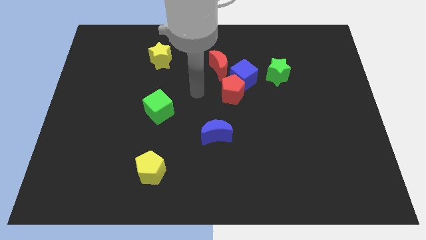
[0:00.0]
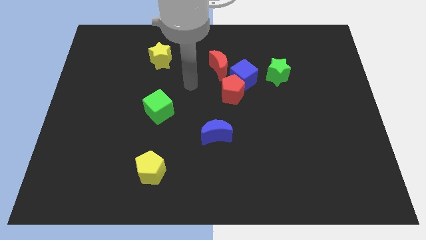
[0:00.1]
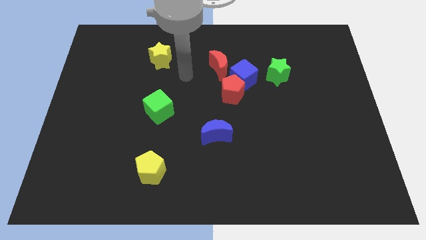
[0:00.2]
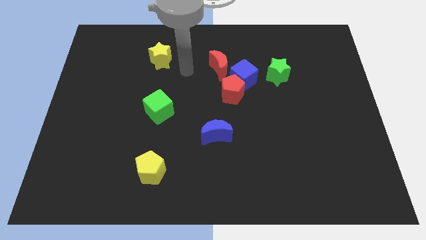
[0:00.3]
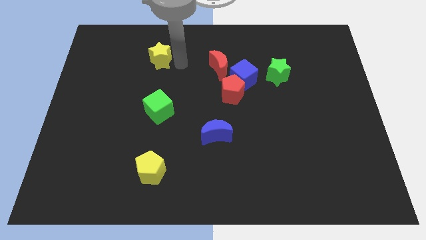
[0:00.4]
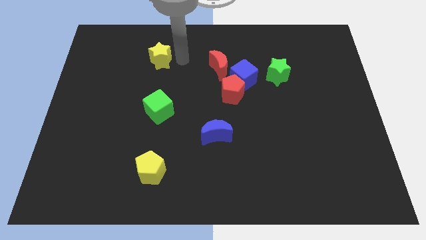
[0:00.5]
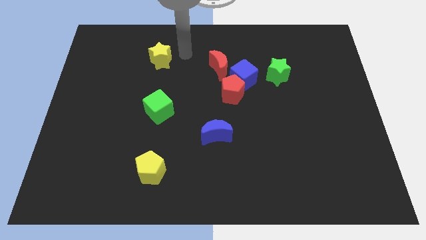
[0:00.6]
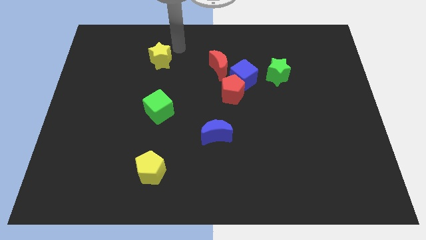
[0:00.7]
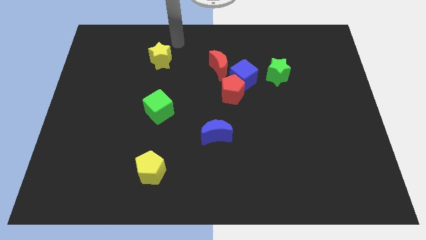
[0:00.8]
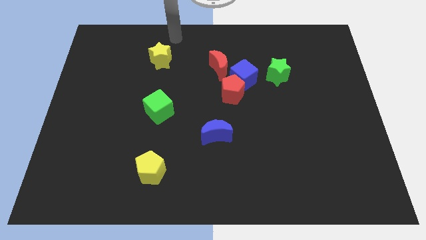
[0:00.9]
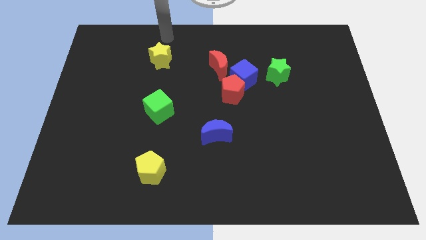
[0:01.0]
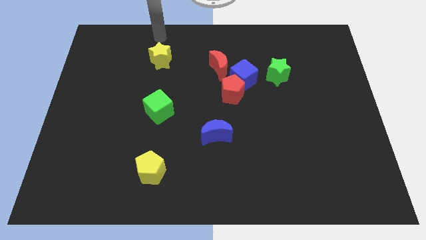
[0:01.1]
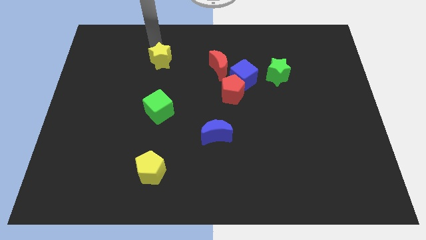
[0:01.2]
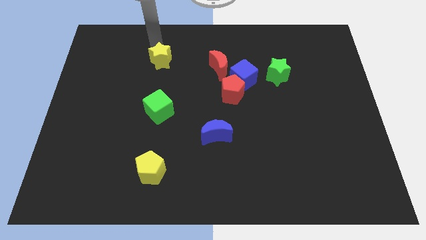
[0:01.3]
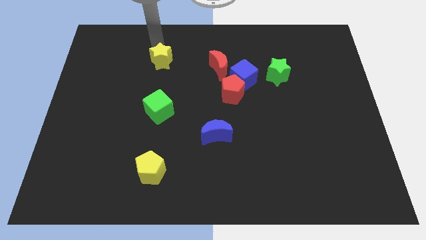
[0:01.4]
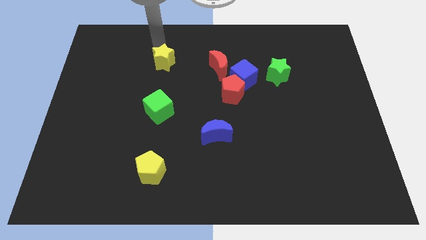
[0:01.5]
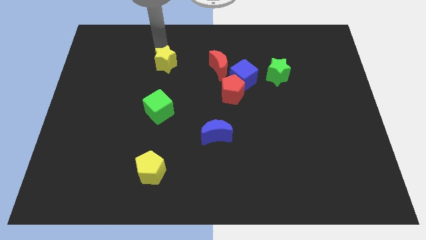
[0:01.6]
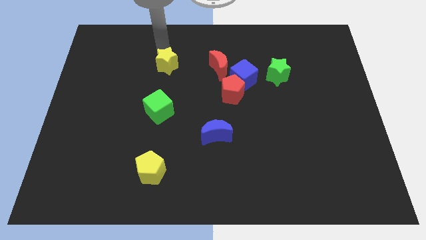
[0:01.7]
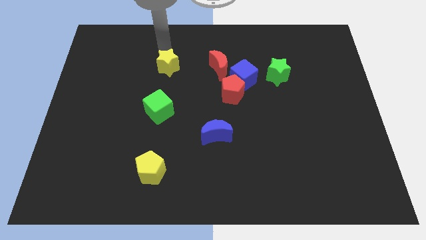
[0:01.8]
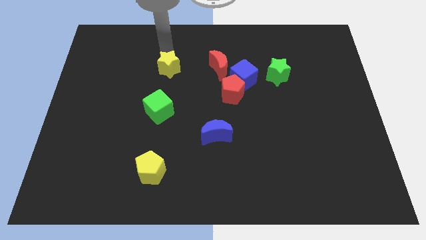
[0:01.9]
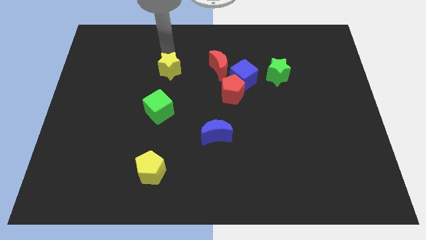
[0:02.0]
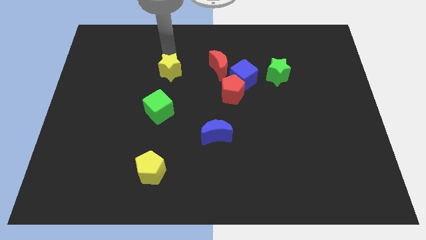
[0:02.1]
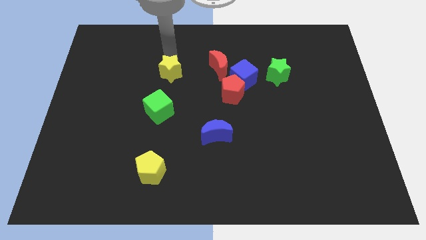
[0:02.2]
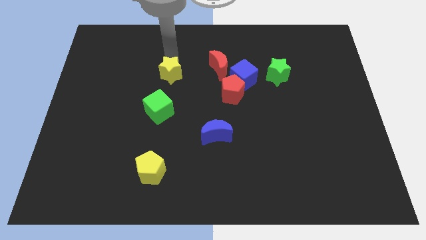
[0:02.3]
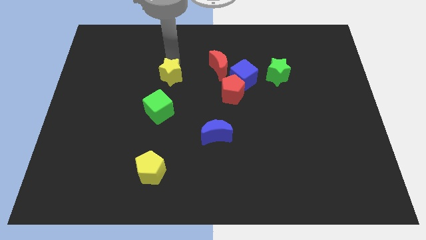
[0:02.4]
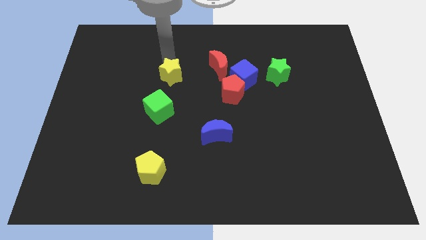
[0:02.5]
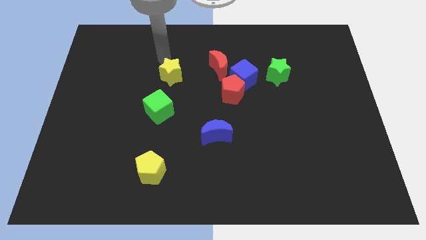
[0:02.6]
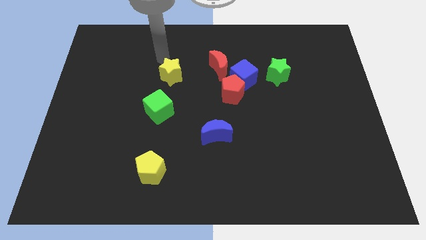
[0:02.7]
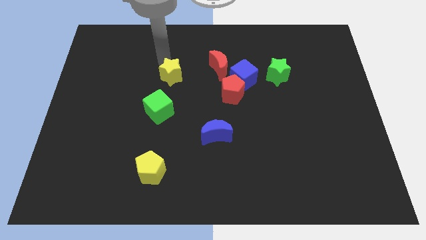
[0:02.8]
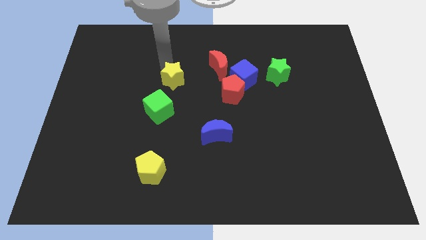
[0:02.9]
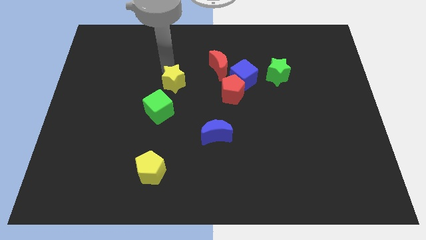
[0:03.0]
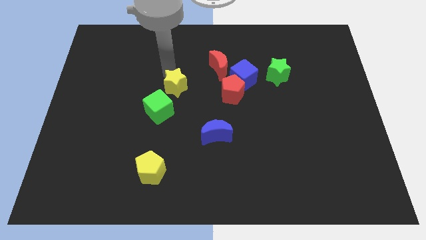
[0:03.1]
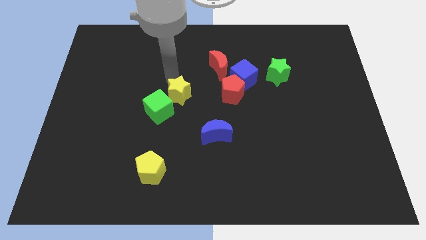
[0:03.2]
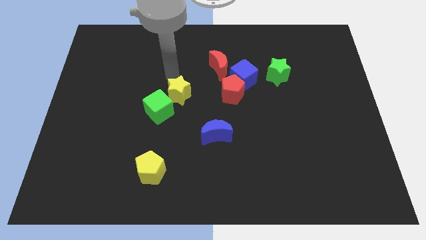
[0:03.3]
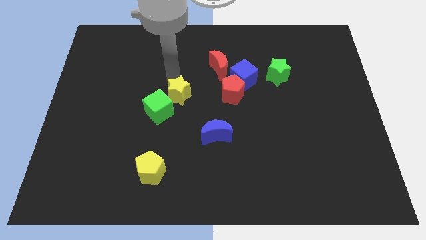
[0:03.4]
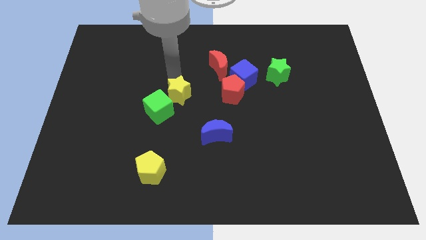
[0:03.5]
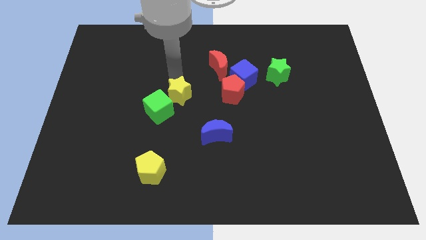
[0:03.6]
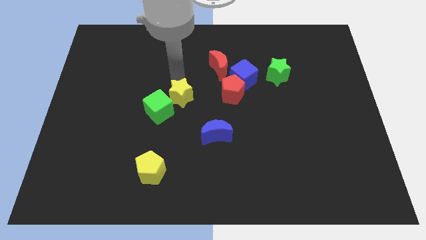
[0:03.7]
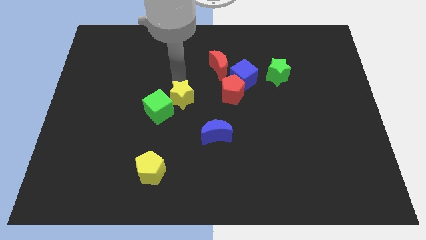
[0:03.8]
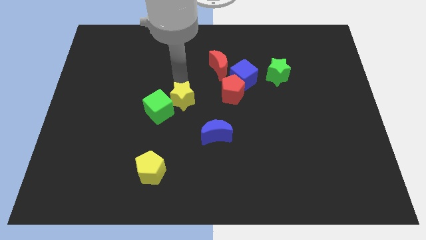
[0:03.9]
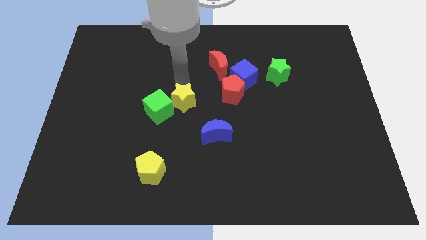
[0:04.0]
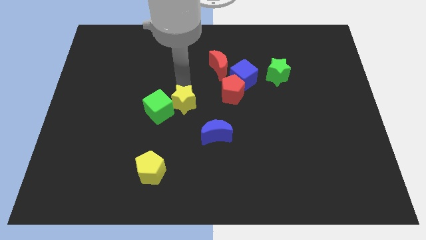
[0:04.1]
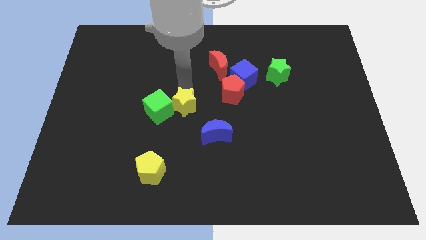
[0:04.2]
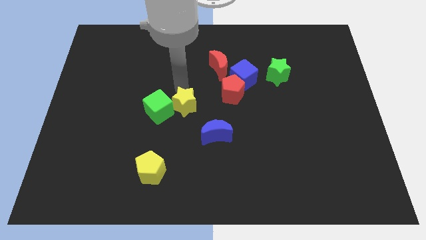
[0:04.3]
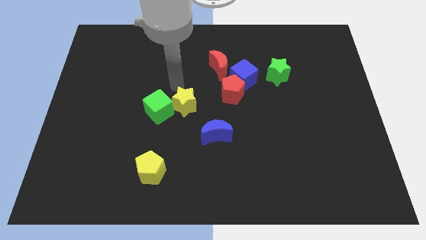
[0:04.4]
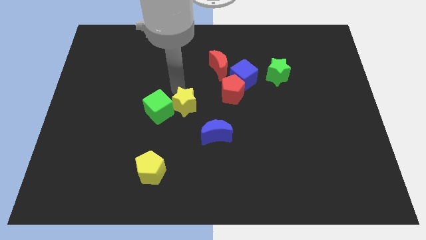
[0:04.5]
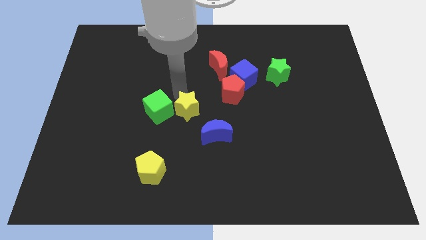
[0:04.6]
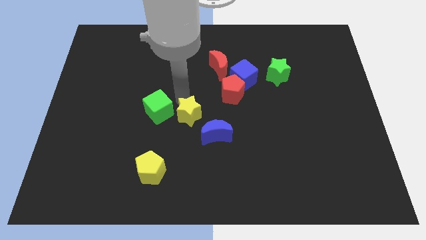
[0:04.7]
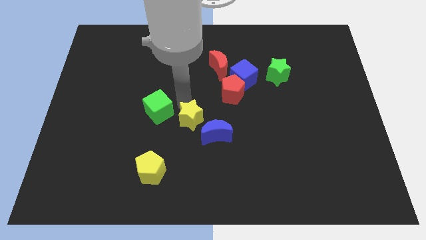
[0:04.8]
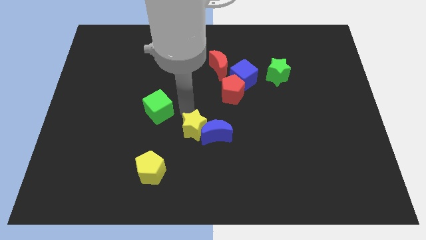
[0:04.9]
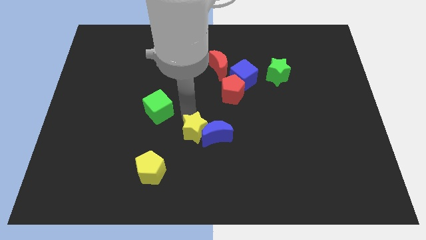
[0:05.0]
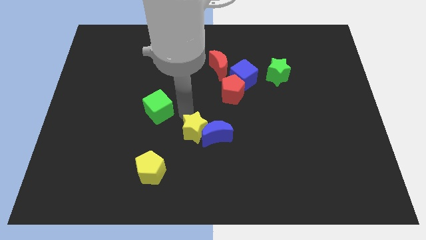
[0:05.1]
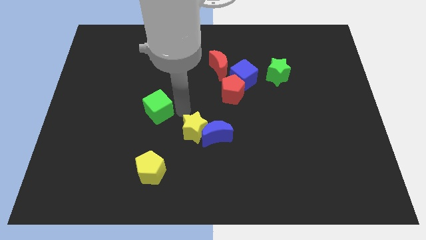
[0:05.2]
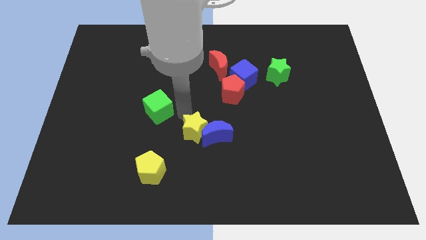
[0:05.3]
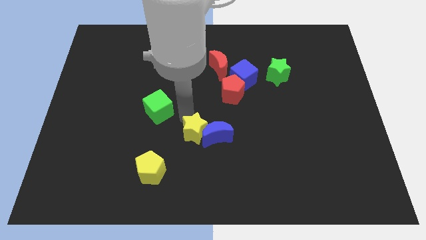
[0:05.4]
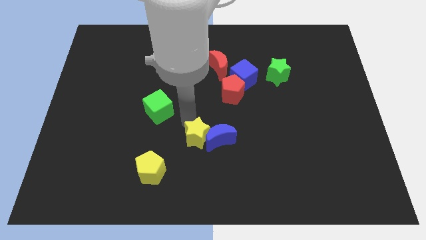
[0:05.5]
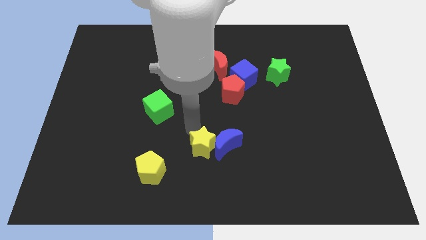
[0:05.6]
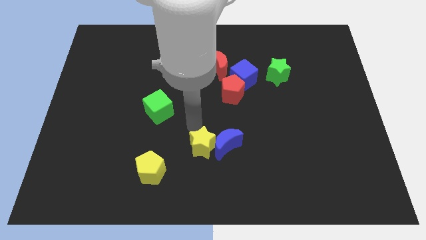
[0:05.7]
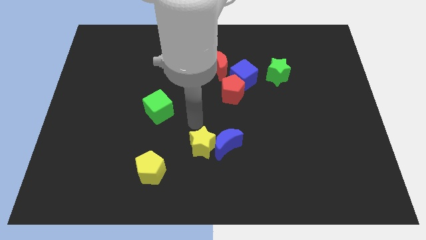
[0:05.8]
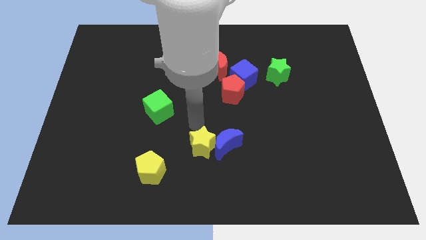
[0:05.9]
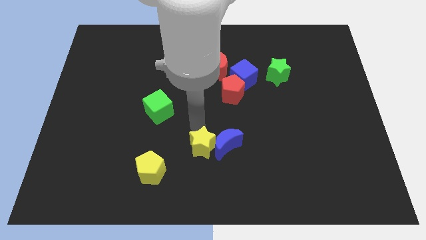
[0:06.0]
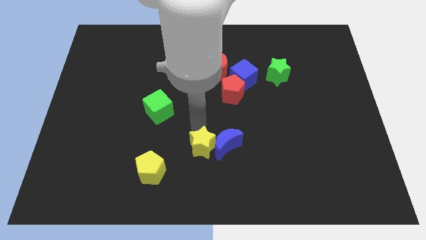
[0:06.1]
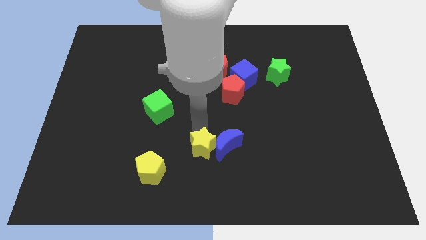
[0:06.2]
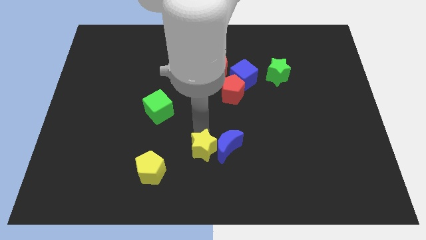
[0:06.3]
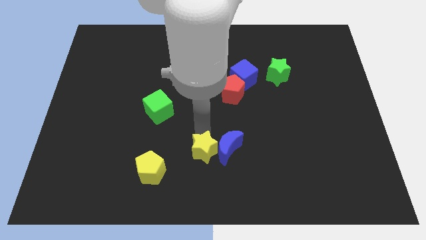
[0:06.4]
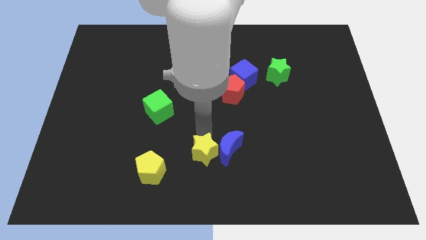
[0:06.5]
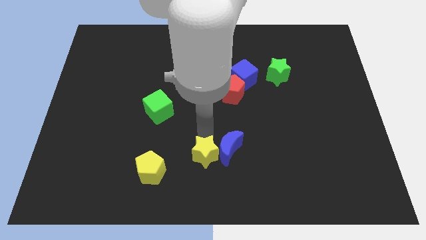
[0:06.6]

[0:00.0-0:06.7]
put the yellow star to the bottom side
